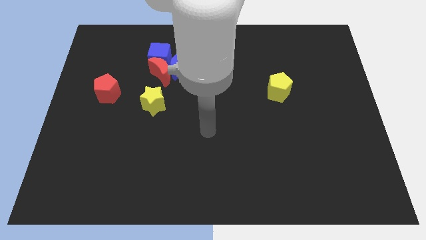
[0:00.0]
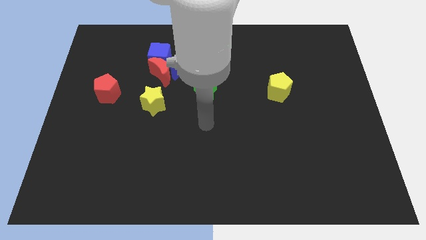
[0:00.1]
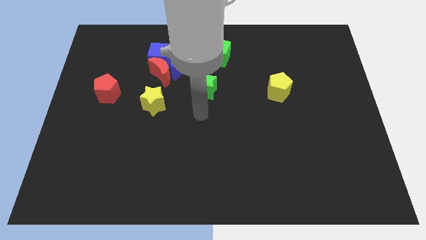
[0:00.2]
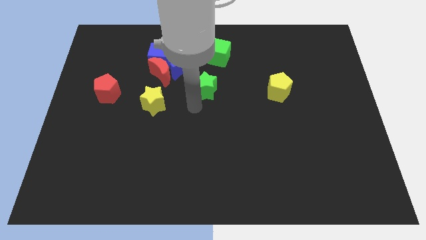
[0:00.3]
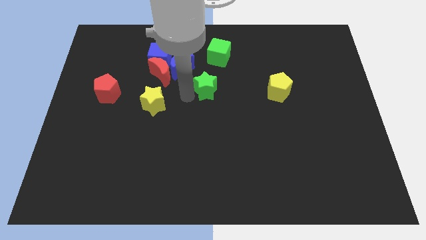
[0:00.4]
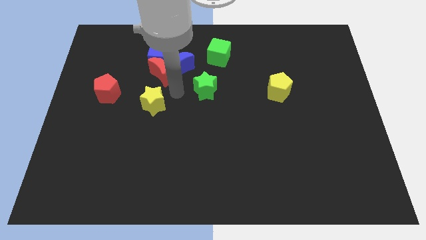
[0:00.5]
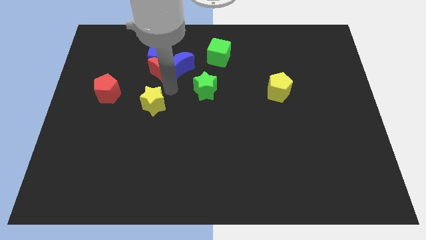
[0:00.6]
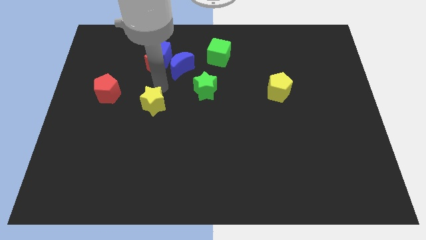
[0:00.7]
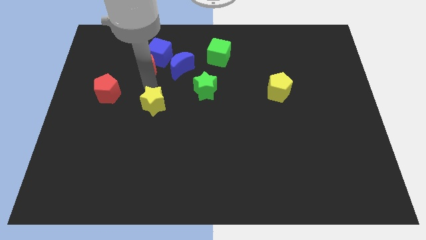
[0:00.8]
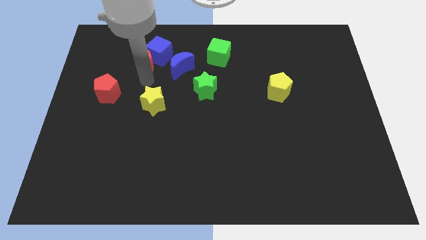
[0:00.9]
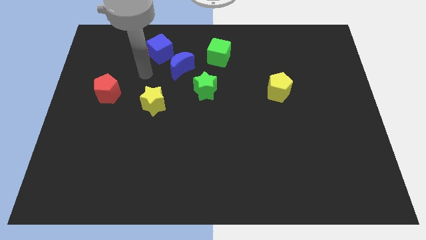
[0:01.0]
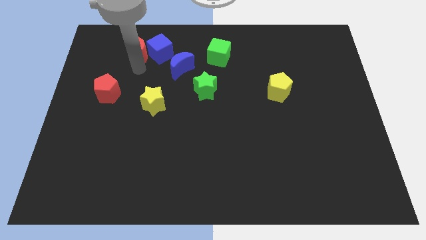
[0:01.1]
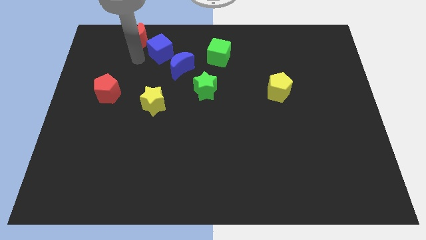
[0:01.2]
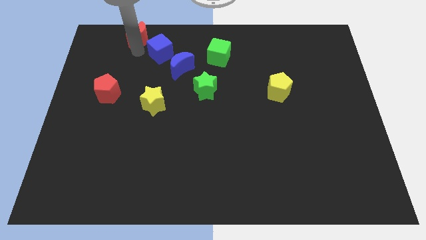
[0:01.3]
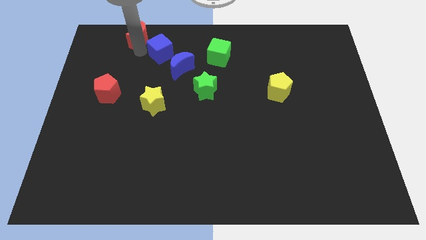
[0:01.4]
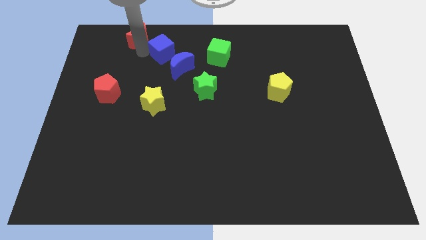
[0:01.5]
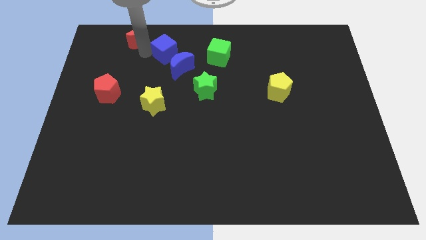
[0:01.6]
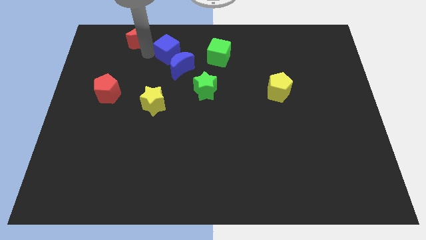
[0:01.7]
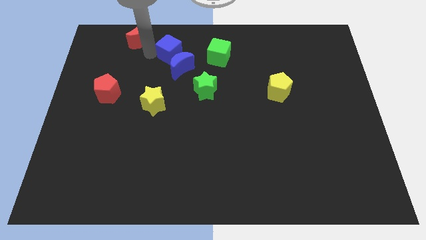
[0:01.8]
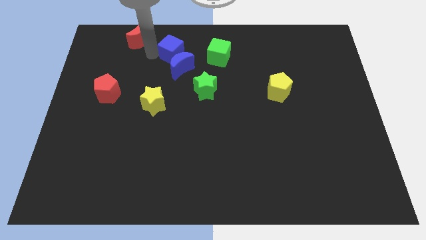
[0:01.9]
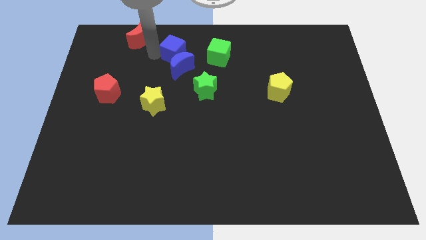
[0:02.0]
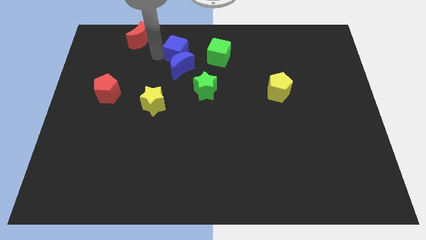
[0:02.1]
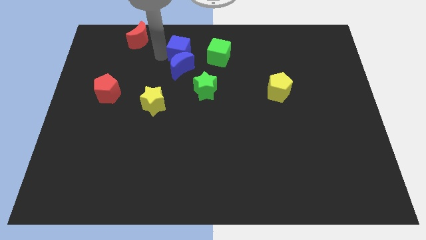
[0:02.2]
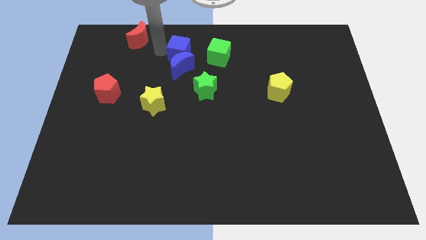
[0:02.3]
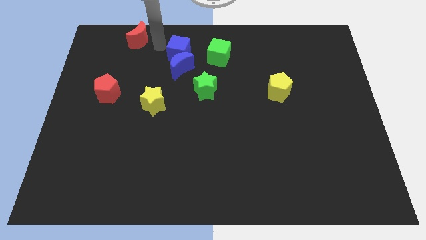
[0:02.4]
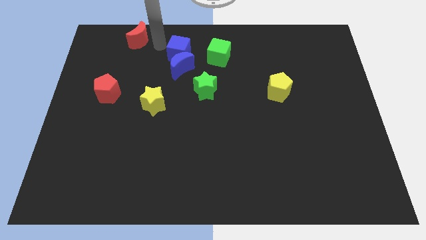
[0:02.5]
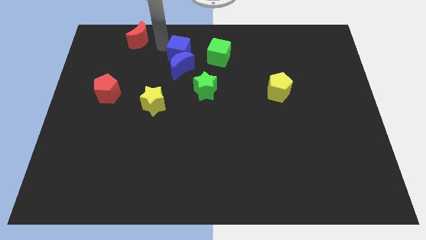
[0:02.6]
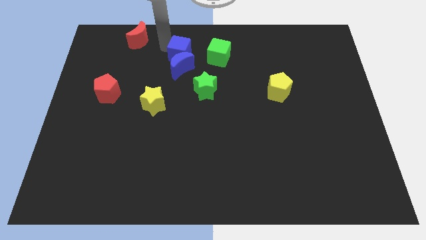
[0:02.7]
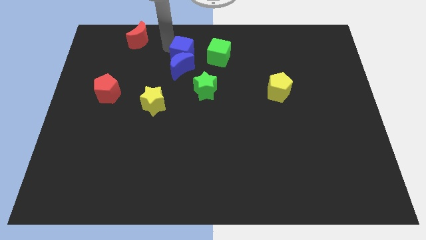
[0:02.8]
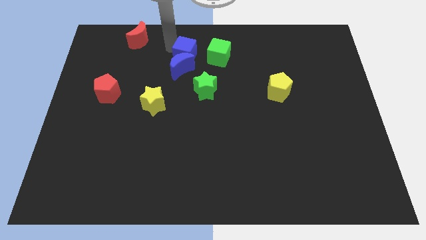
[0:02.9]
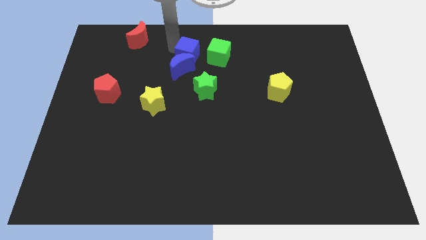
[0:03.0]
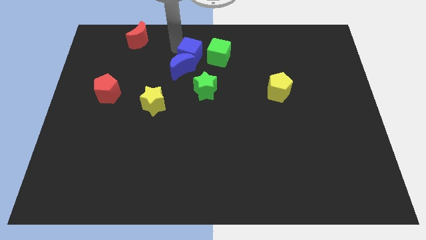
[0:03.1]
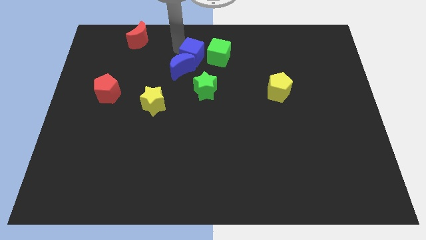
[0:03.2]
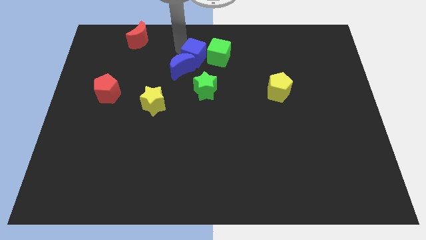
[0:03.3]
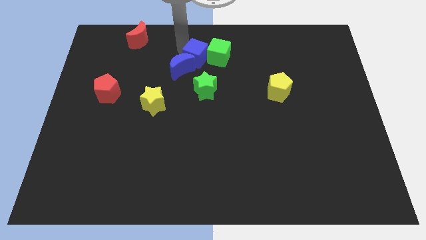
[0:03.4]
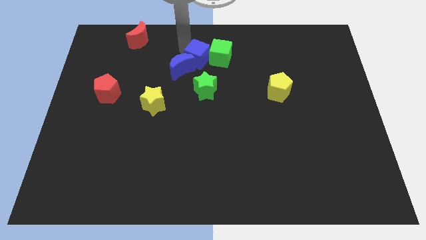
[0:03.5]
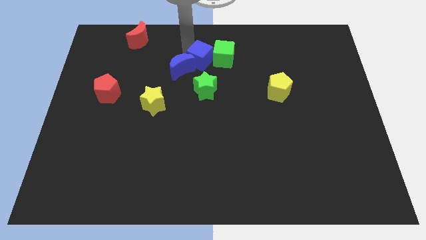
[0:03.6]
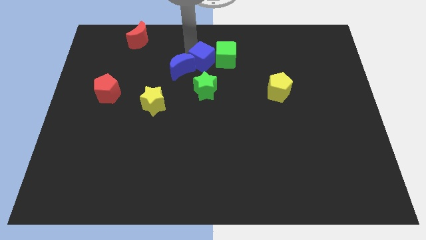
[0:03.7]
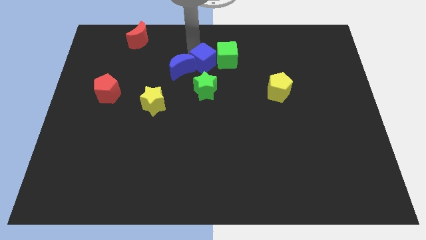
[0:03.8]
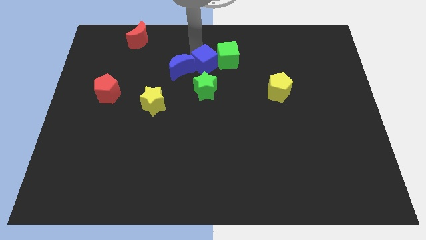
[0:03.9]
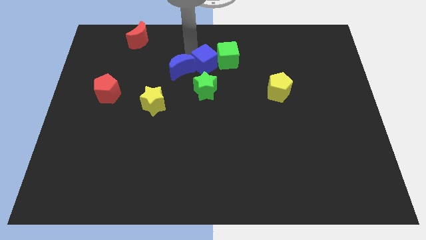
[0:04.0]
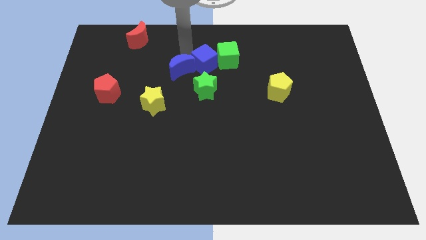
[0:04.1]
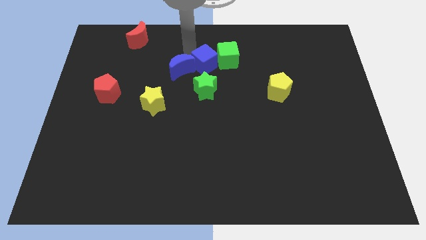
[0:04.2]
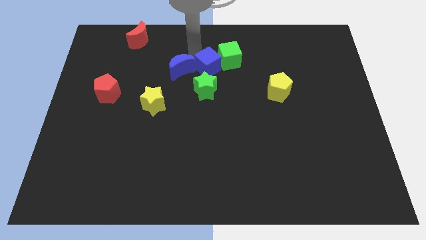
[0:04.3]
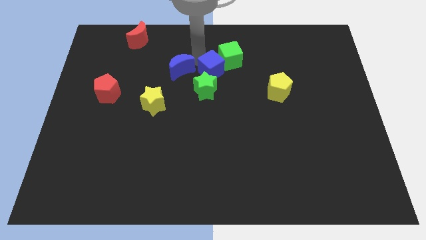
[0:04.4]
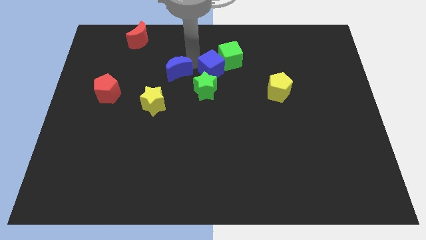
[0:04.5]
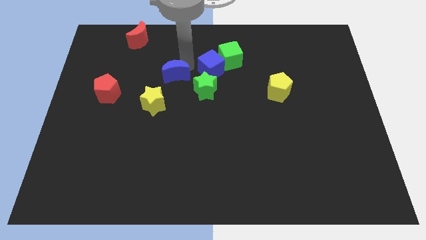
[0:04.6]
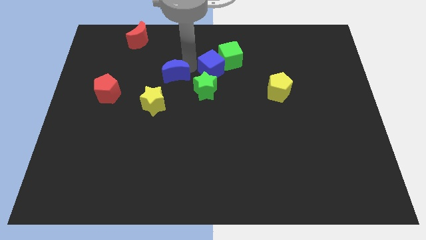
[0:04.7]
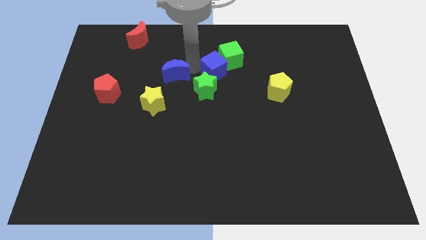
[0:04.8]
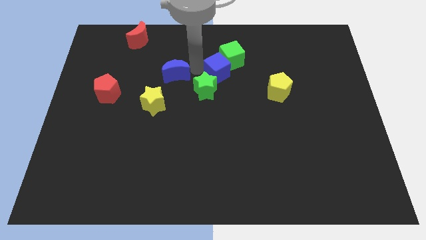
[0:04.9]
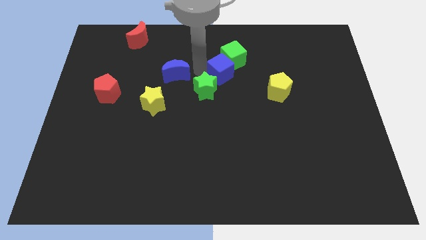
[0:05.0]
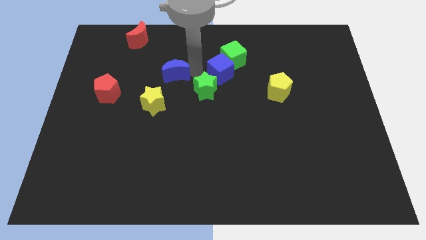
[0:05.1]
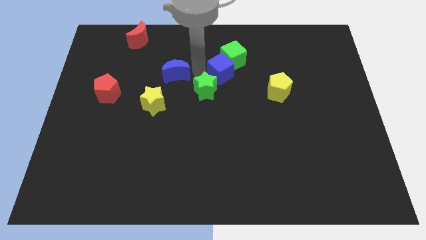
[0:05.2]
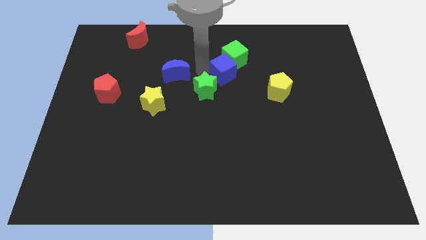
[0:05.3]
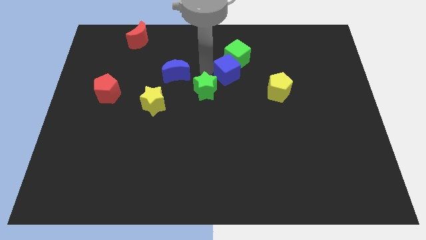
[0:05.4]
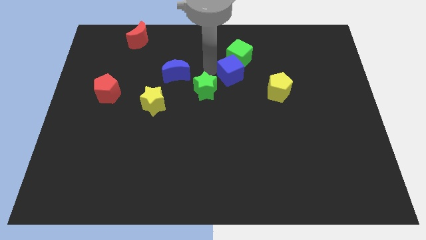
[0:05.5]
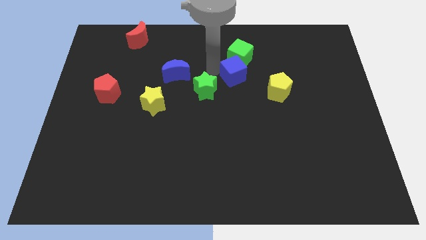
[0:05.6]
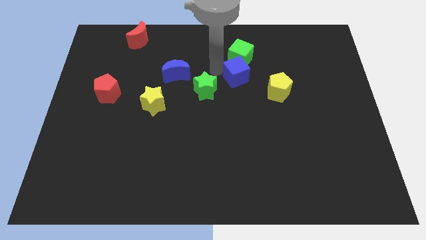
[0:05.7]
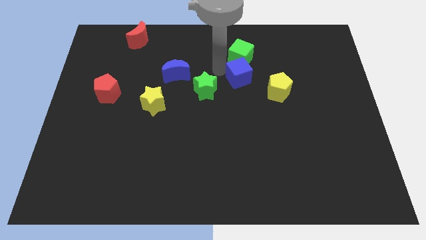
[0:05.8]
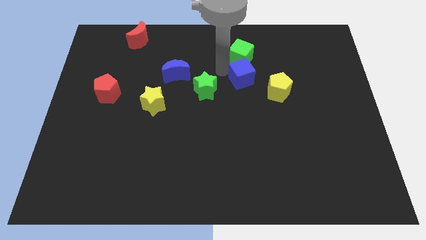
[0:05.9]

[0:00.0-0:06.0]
put the blue cube to the bottom right of the green cube

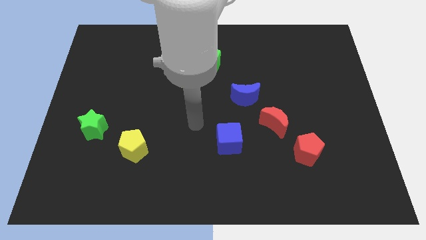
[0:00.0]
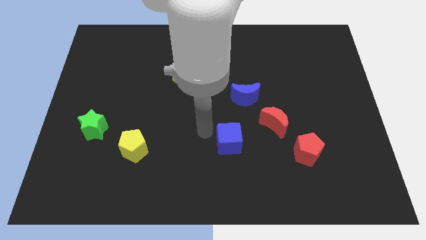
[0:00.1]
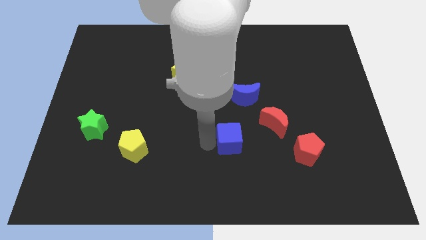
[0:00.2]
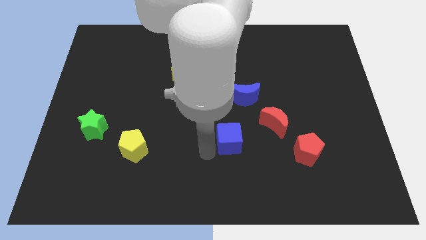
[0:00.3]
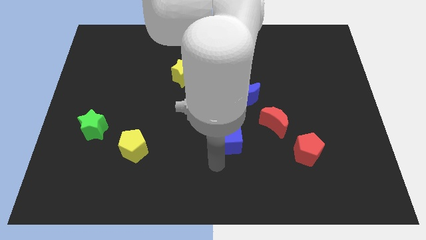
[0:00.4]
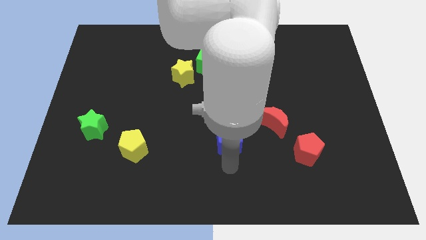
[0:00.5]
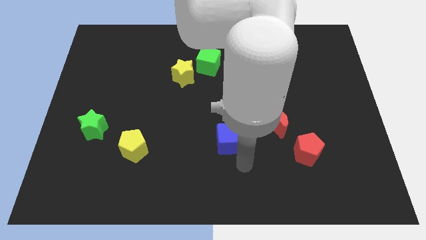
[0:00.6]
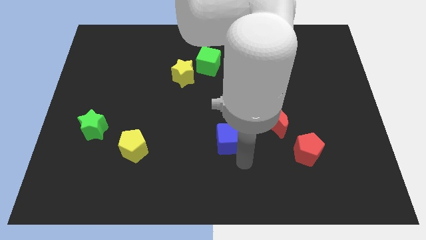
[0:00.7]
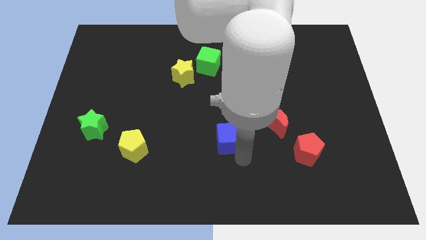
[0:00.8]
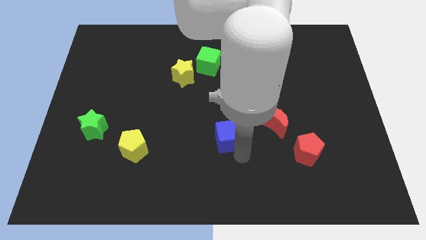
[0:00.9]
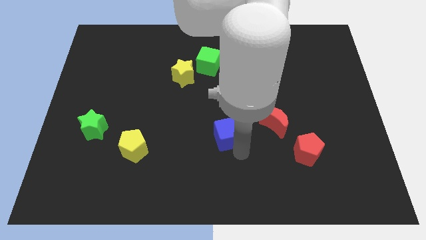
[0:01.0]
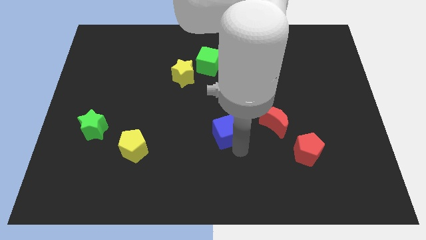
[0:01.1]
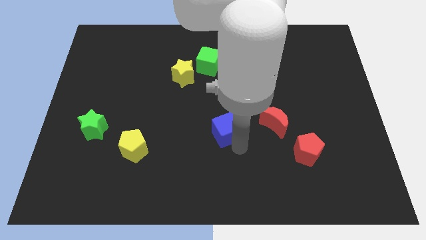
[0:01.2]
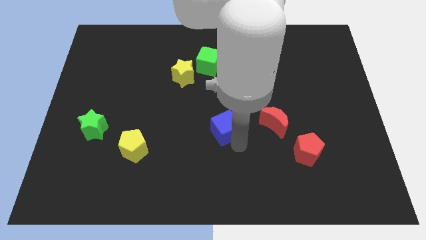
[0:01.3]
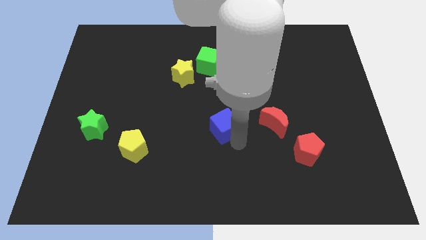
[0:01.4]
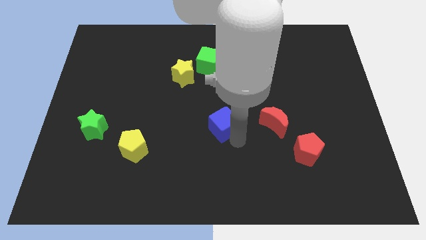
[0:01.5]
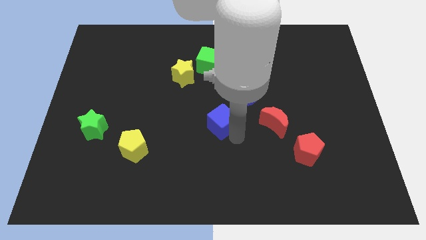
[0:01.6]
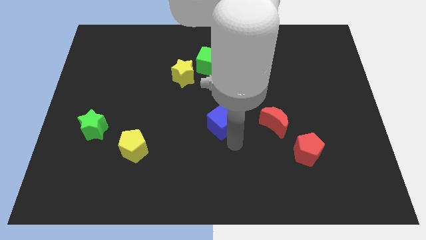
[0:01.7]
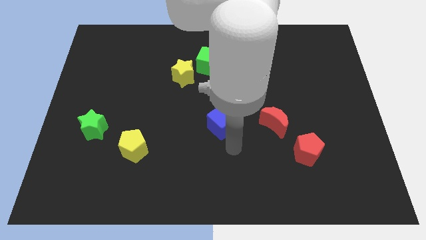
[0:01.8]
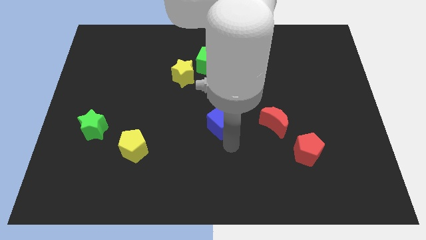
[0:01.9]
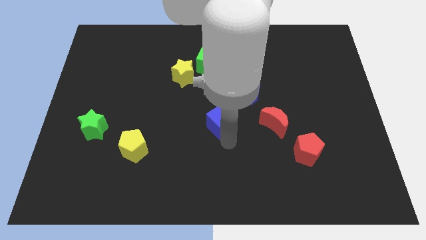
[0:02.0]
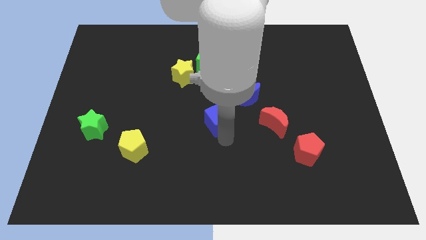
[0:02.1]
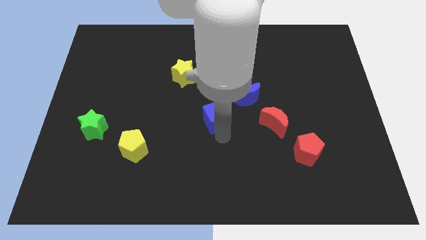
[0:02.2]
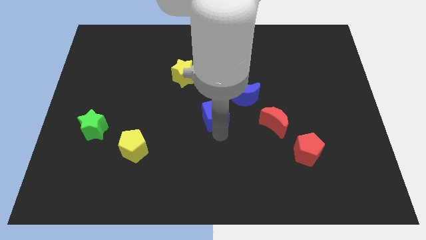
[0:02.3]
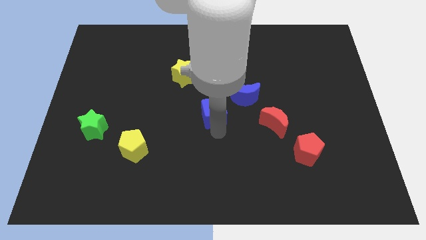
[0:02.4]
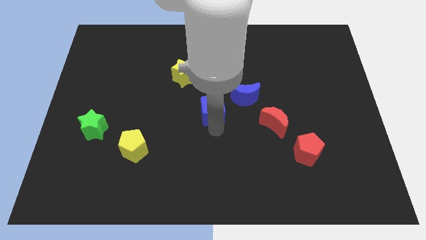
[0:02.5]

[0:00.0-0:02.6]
push the blue cube to the bottom of the green cube
